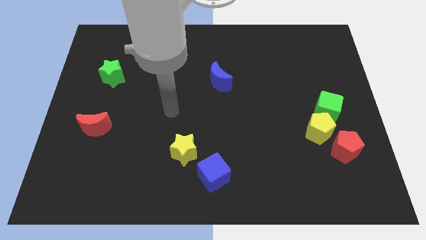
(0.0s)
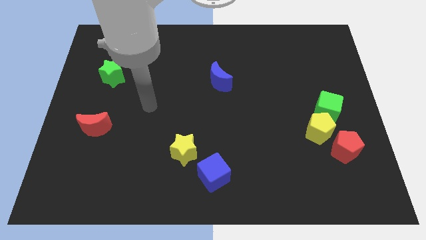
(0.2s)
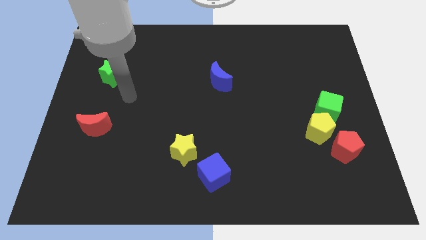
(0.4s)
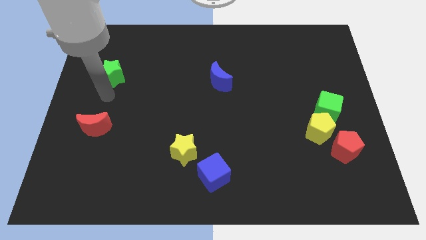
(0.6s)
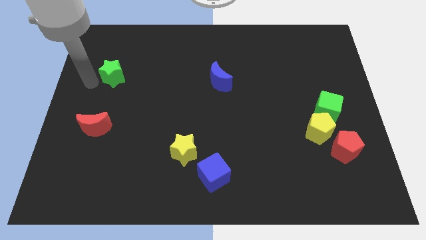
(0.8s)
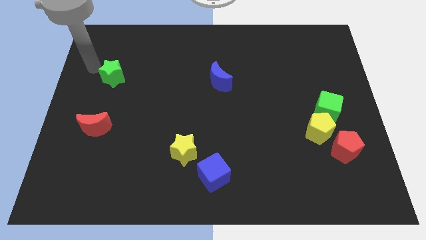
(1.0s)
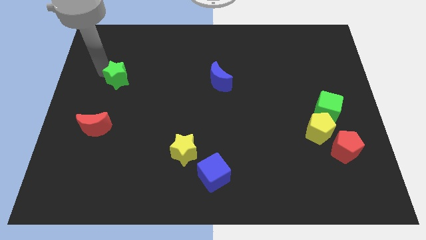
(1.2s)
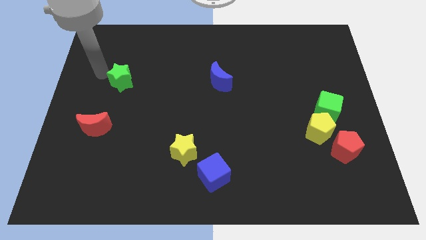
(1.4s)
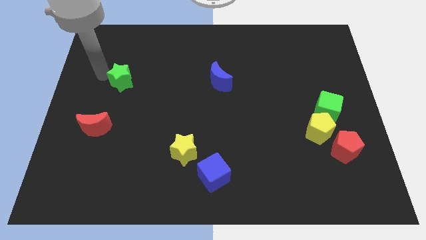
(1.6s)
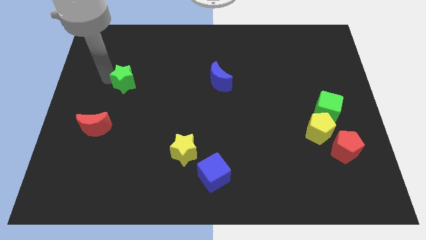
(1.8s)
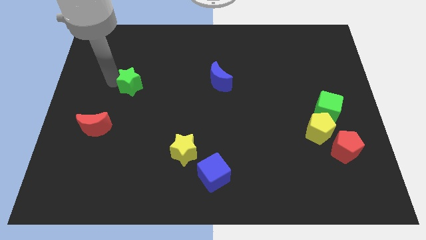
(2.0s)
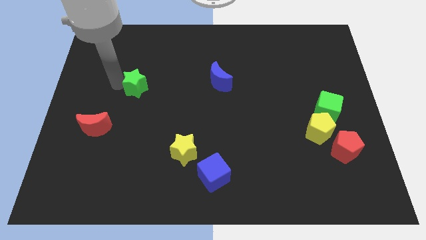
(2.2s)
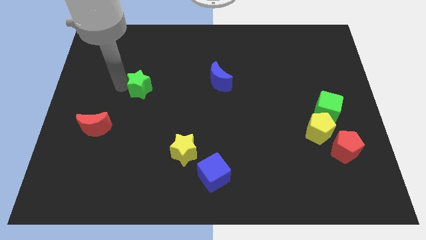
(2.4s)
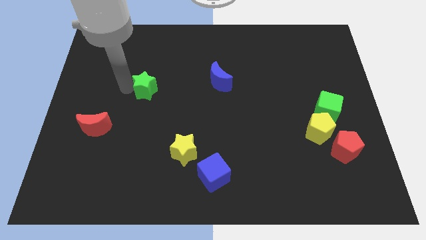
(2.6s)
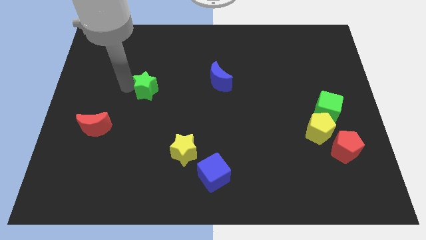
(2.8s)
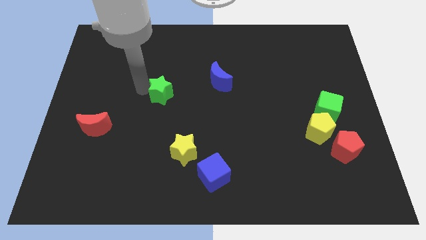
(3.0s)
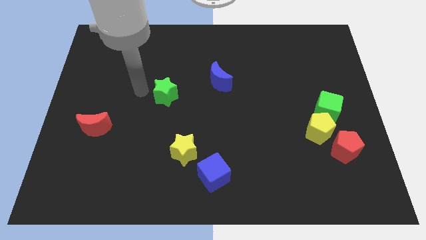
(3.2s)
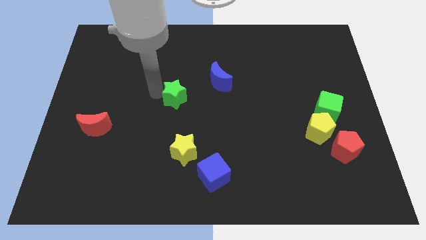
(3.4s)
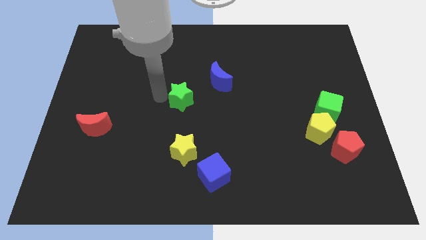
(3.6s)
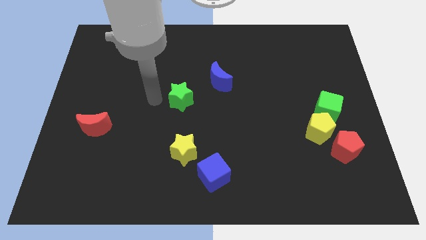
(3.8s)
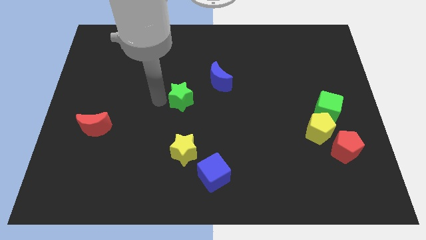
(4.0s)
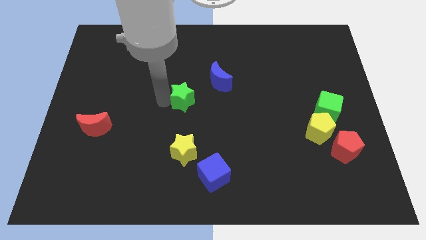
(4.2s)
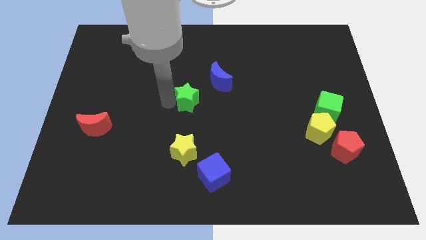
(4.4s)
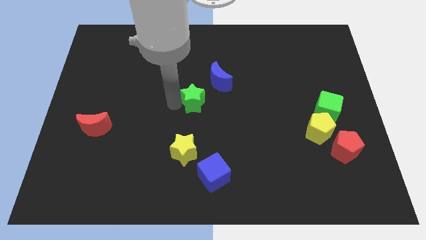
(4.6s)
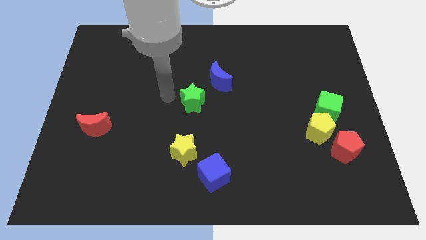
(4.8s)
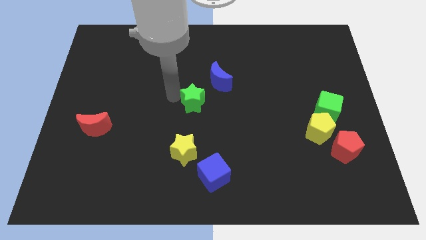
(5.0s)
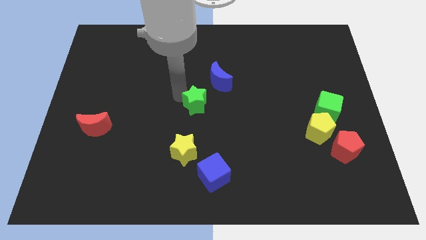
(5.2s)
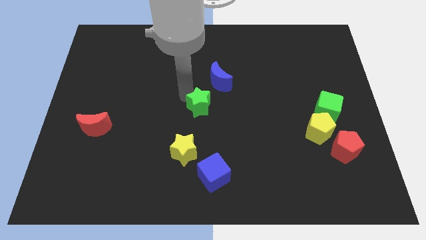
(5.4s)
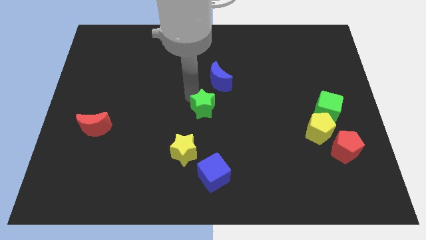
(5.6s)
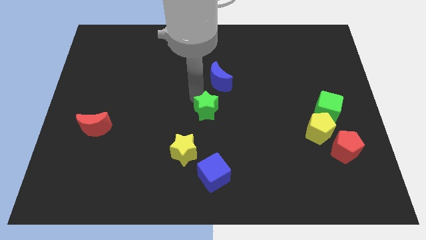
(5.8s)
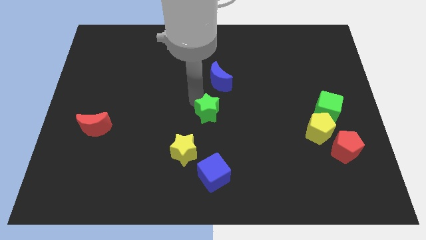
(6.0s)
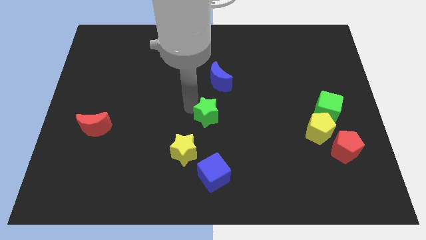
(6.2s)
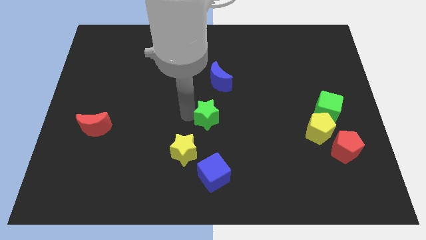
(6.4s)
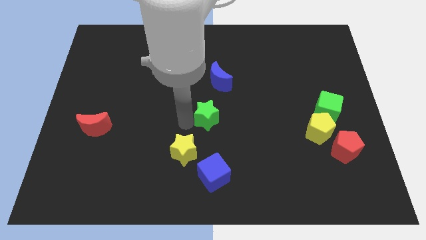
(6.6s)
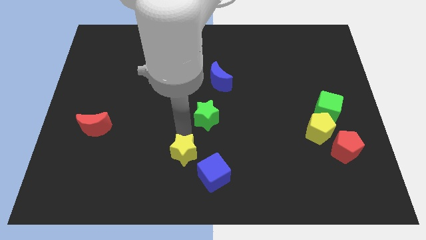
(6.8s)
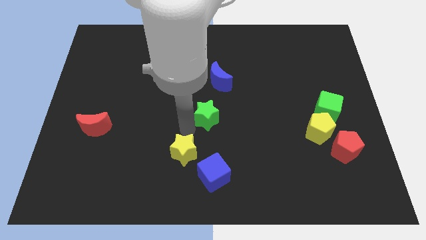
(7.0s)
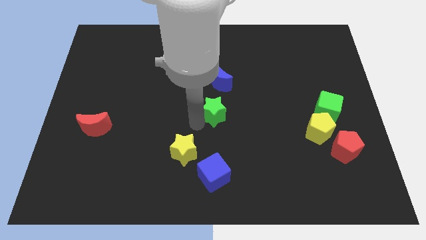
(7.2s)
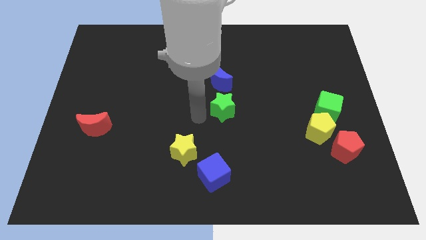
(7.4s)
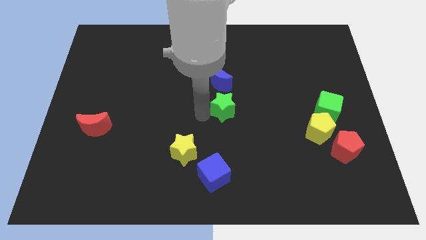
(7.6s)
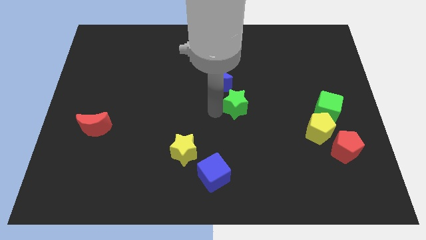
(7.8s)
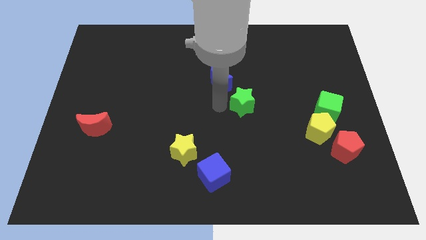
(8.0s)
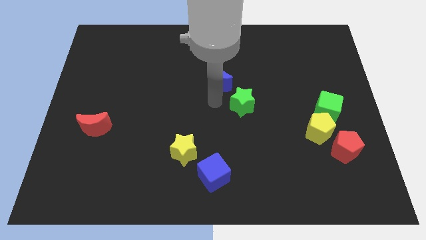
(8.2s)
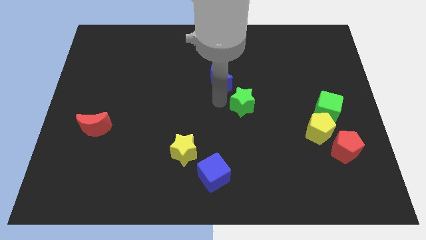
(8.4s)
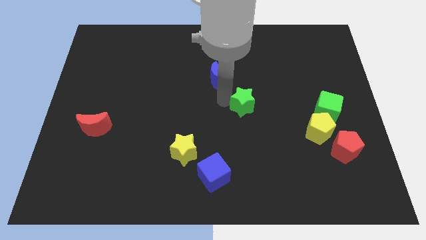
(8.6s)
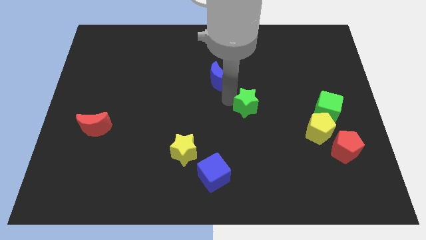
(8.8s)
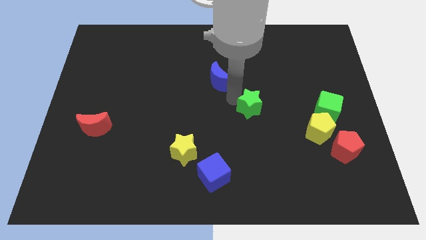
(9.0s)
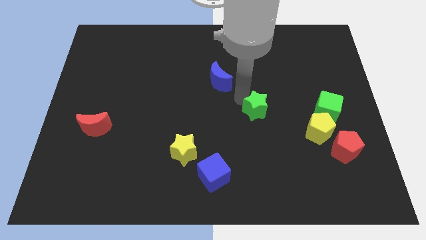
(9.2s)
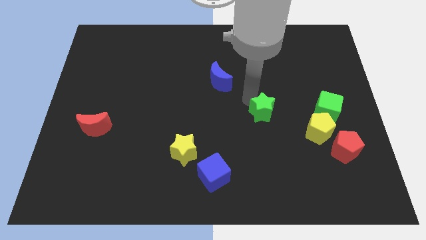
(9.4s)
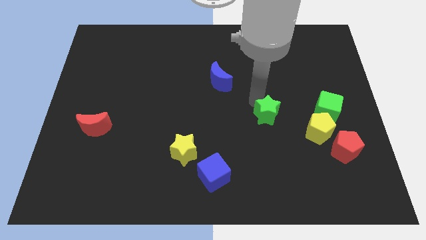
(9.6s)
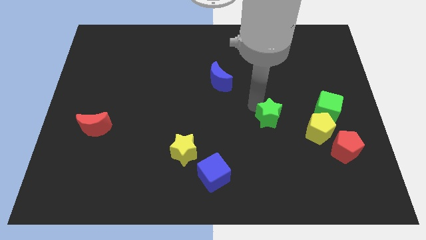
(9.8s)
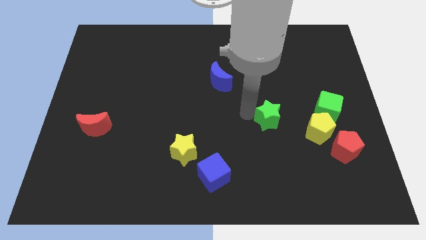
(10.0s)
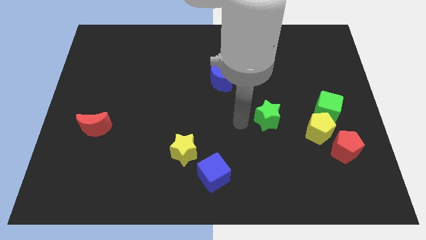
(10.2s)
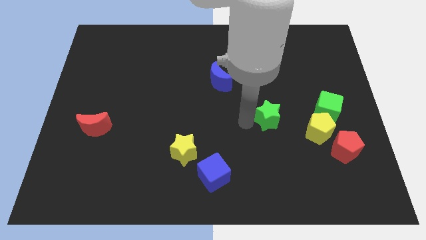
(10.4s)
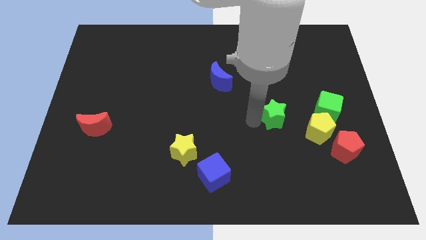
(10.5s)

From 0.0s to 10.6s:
put the green star diagonally up and to the left of the yellow pentagon

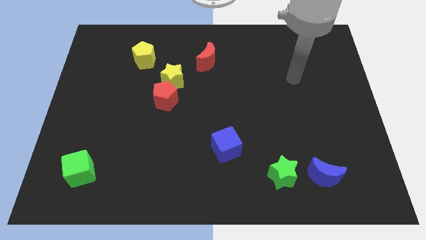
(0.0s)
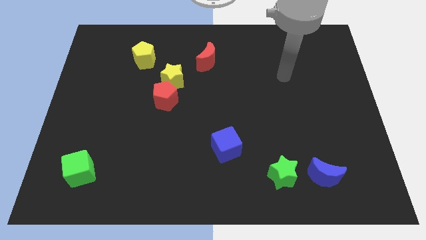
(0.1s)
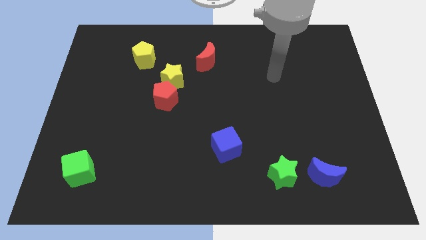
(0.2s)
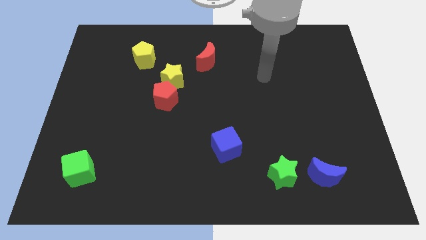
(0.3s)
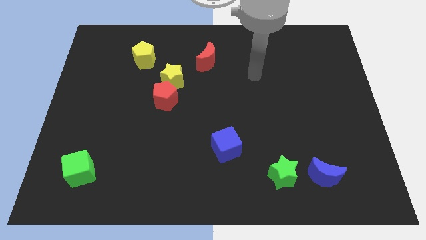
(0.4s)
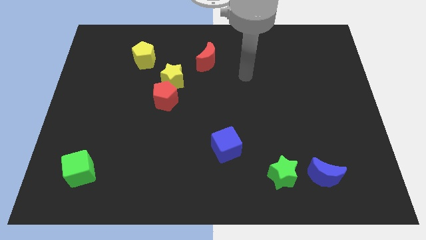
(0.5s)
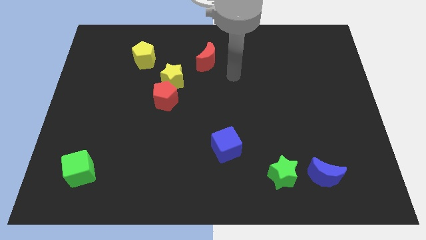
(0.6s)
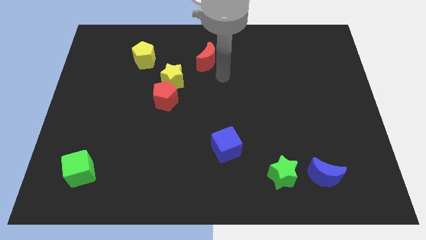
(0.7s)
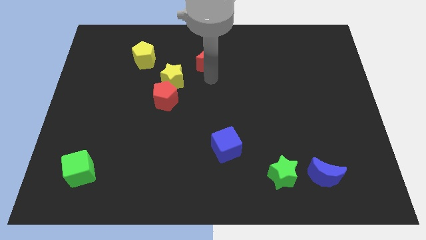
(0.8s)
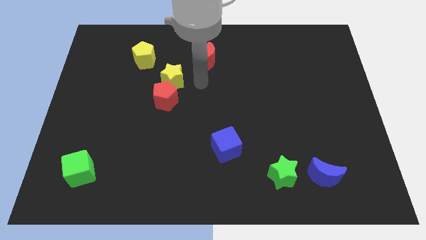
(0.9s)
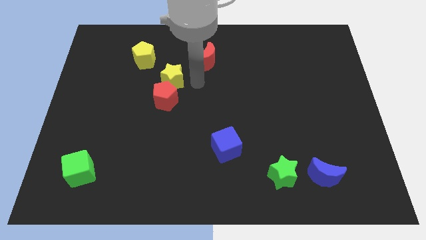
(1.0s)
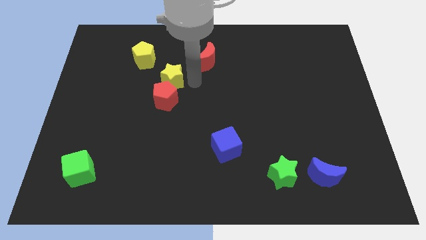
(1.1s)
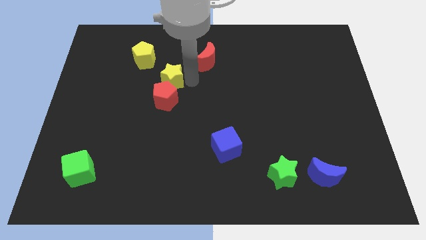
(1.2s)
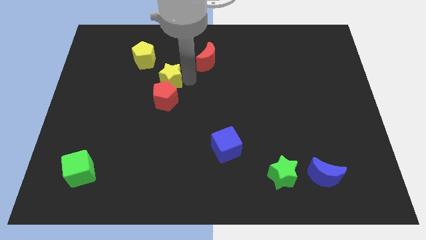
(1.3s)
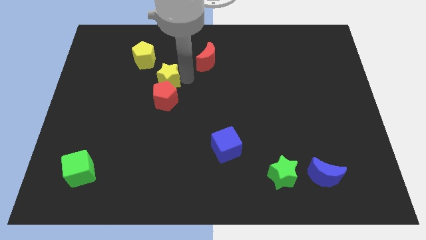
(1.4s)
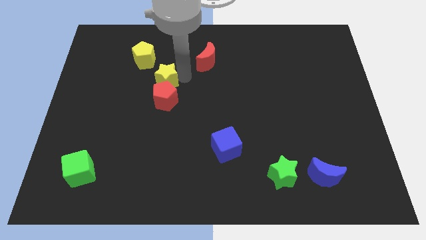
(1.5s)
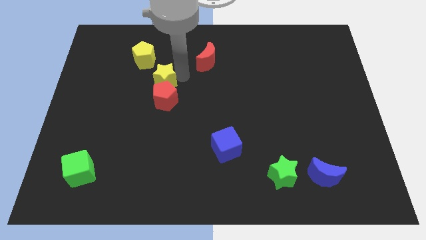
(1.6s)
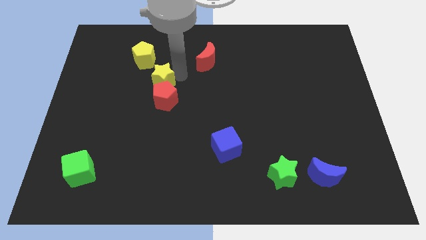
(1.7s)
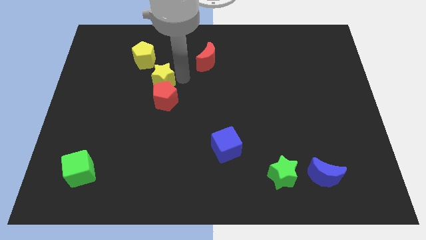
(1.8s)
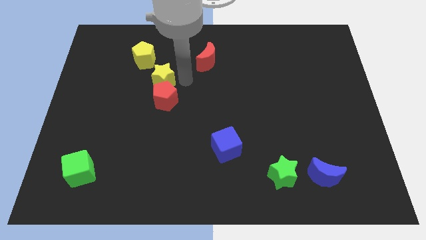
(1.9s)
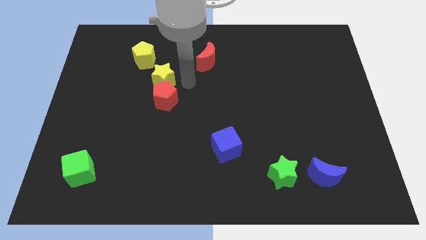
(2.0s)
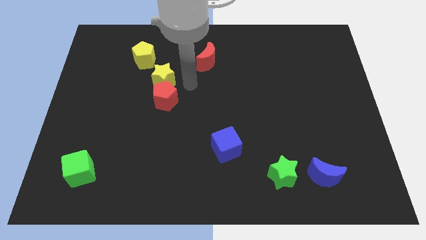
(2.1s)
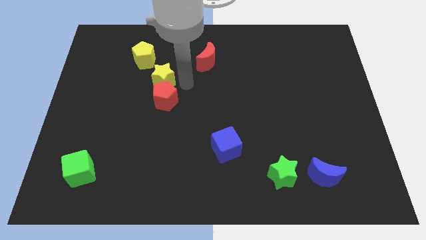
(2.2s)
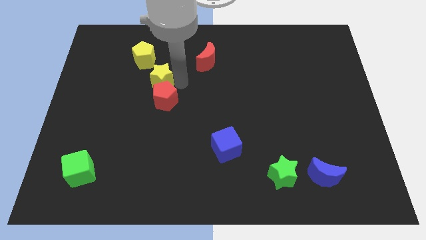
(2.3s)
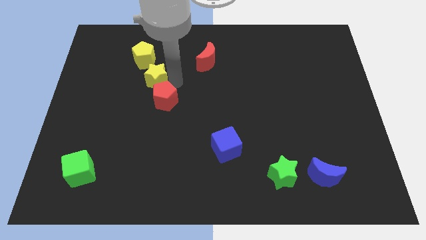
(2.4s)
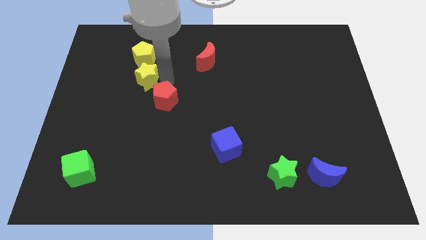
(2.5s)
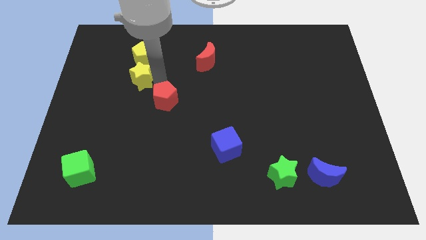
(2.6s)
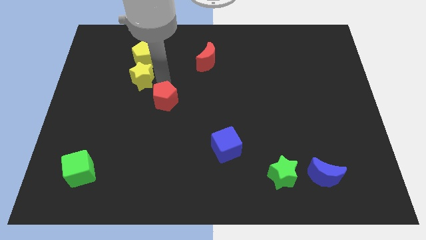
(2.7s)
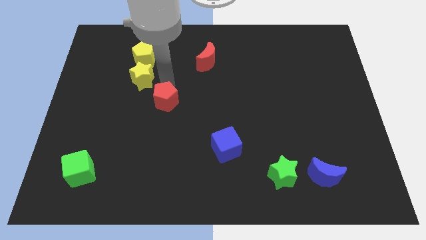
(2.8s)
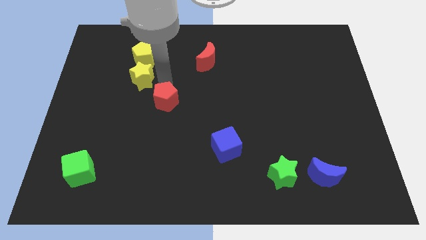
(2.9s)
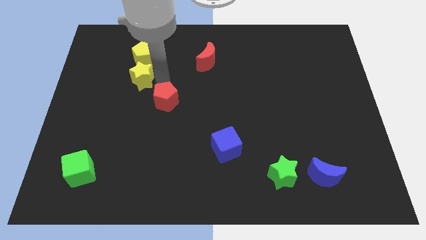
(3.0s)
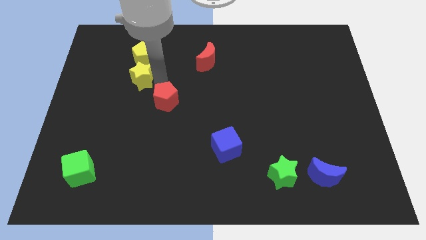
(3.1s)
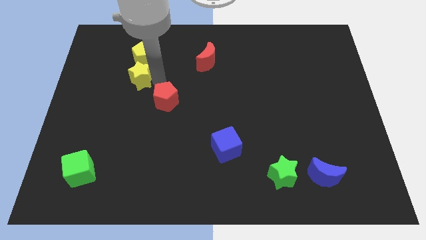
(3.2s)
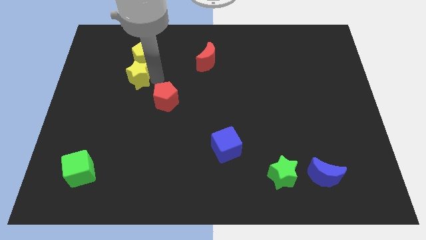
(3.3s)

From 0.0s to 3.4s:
move the yellow star to the bottom left of the yellow pentagon
